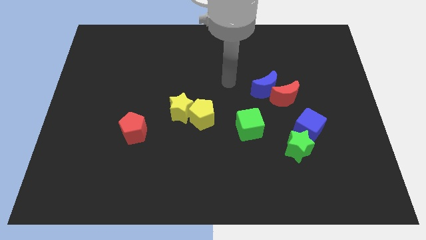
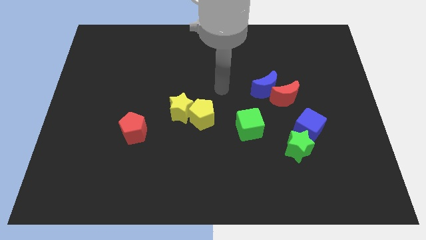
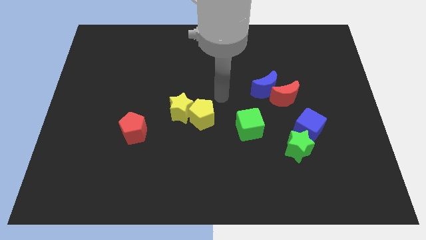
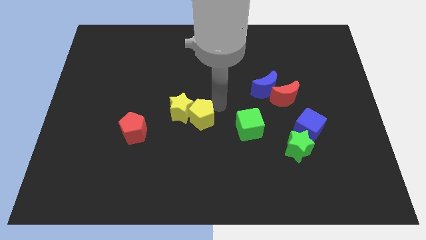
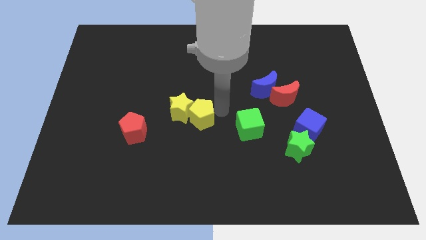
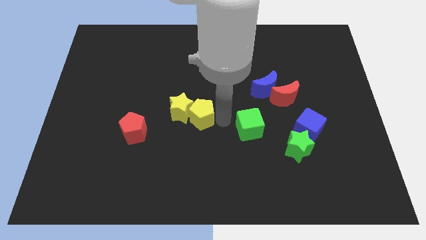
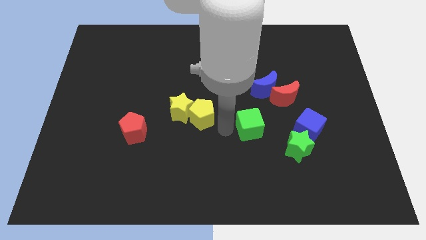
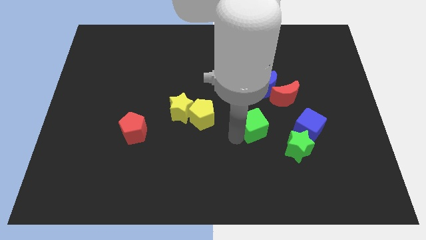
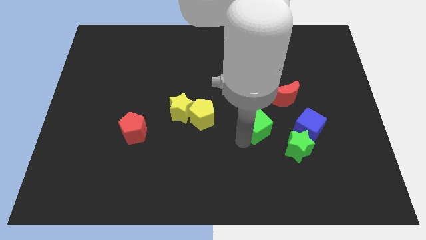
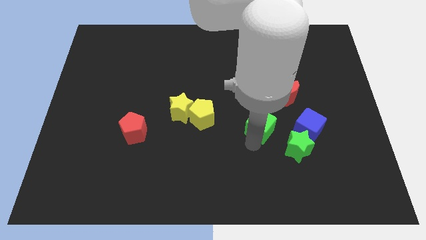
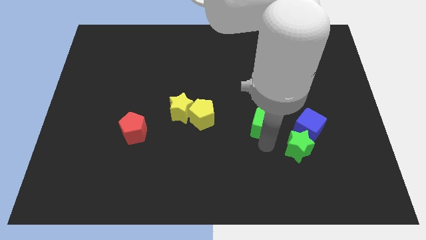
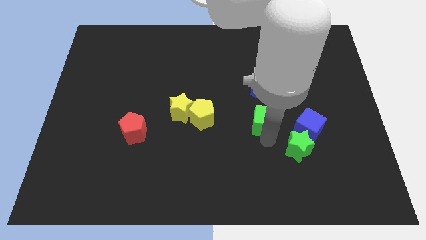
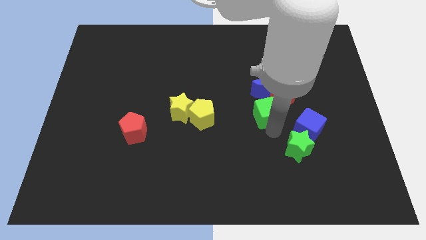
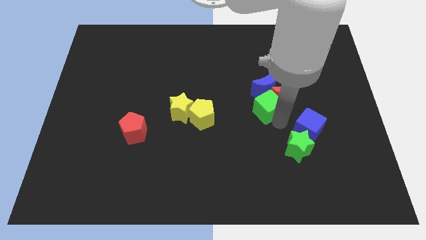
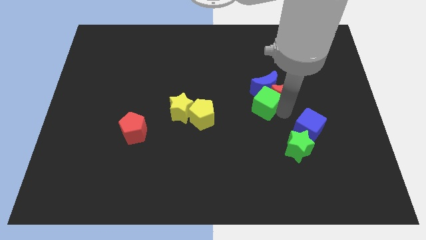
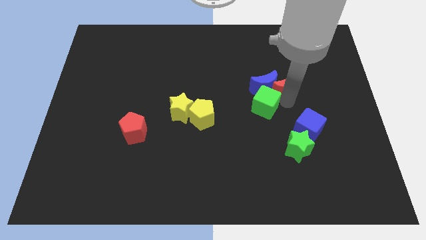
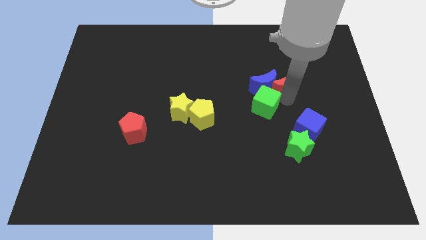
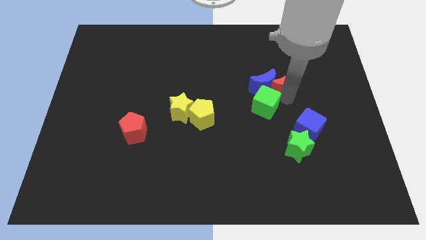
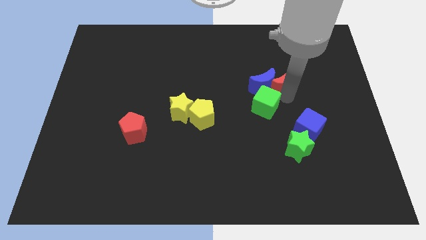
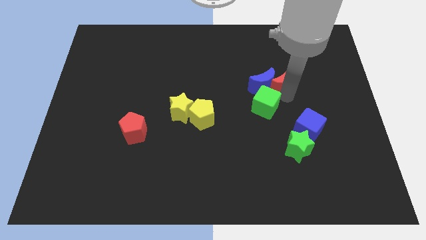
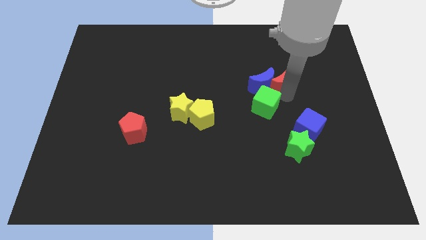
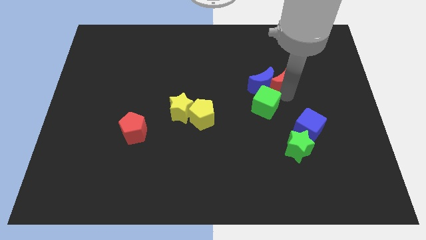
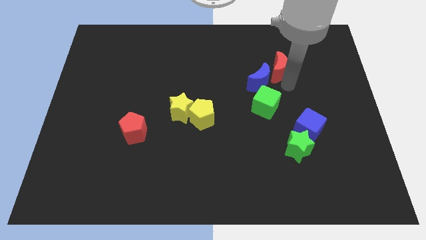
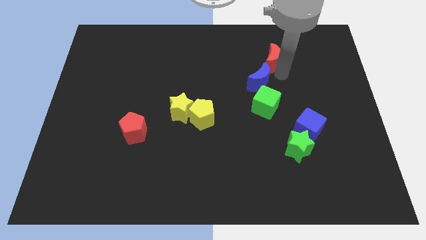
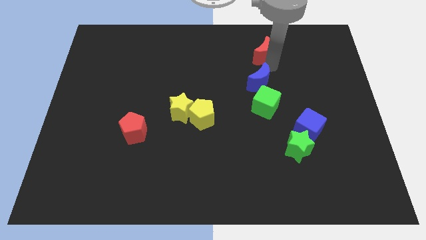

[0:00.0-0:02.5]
separate the blue moon from the red moon

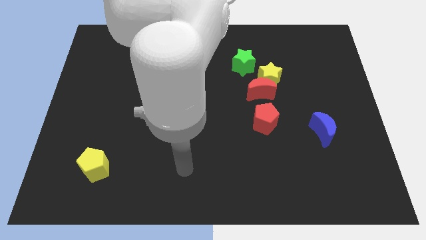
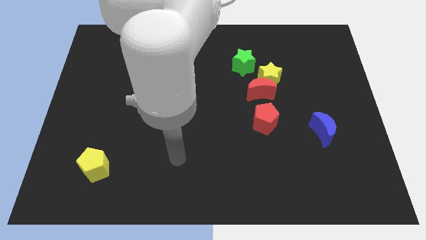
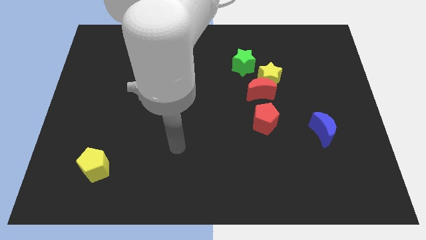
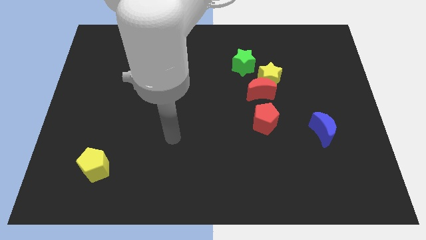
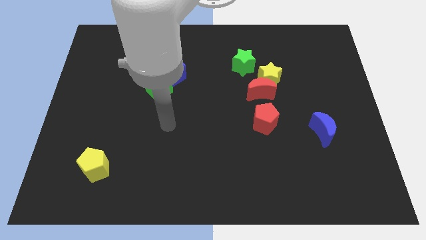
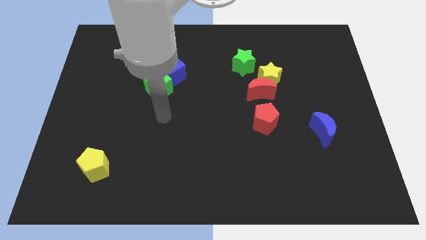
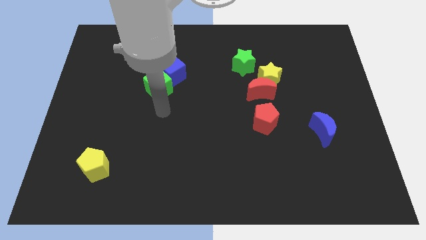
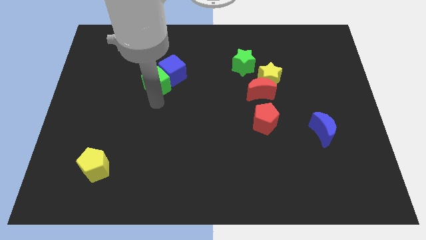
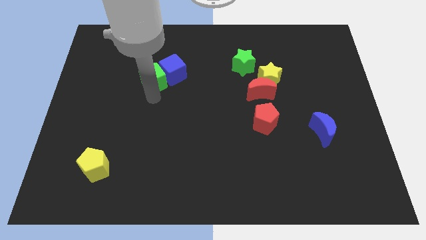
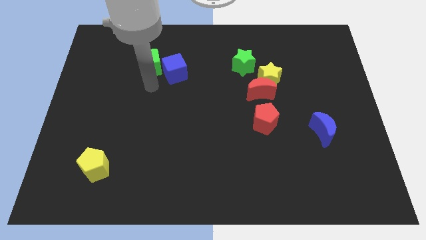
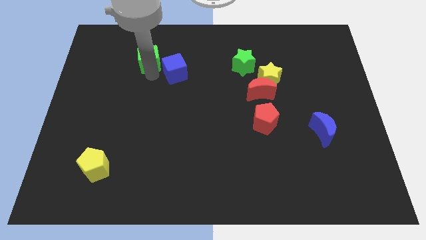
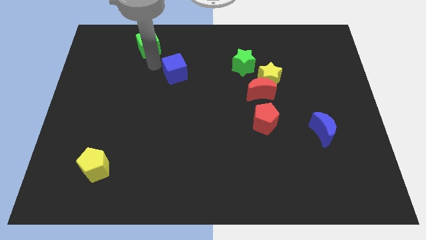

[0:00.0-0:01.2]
pull the blue cube apart from the green cube

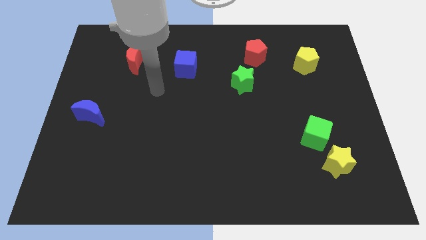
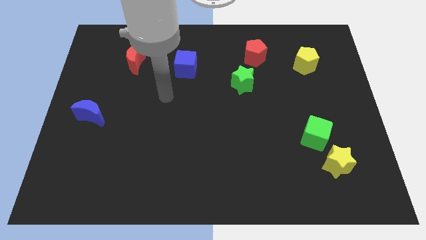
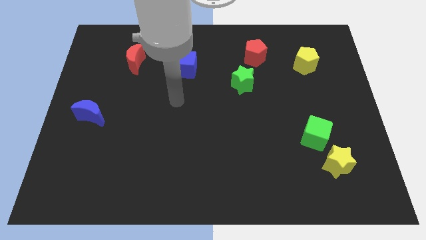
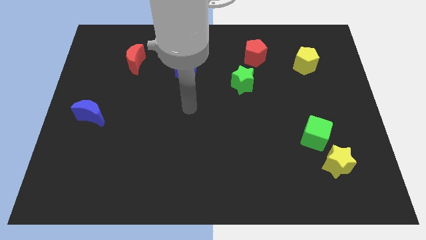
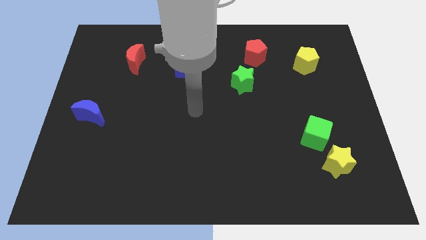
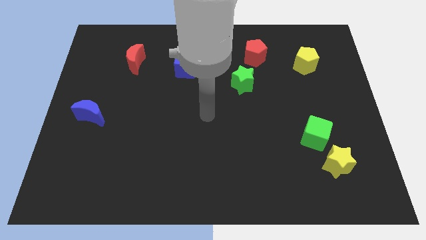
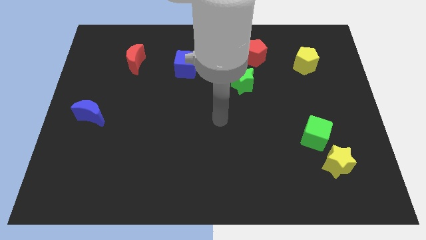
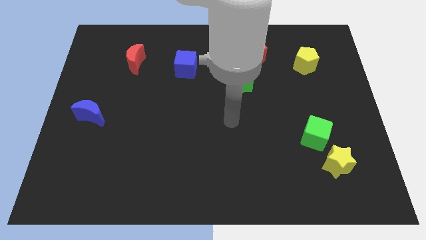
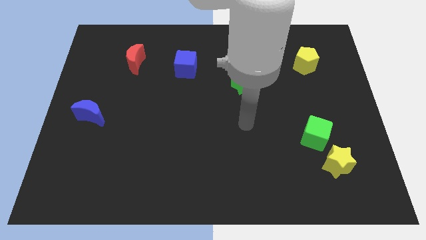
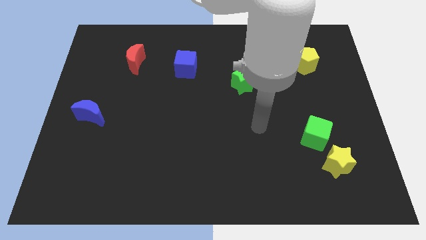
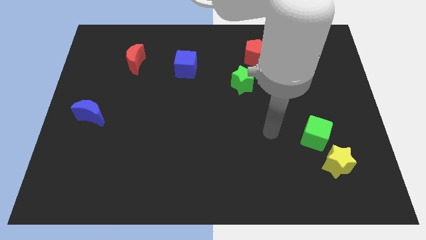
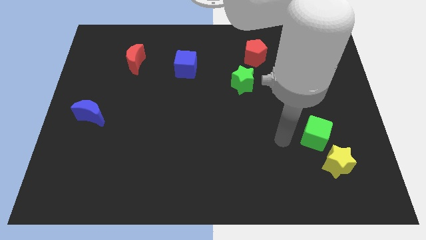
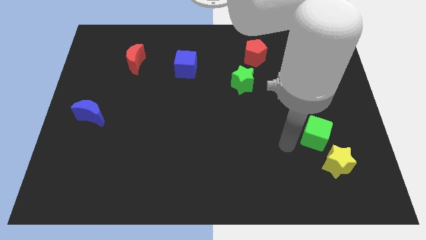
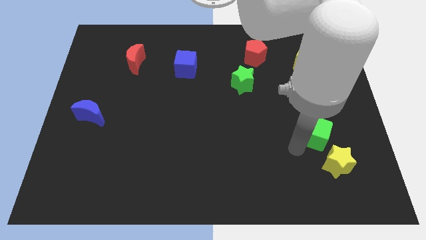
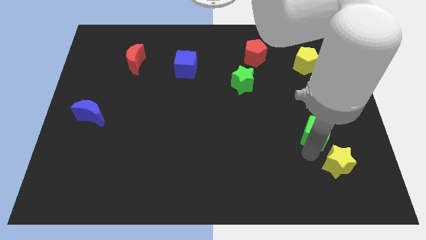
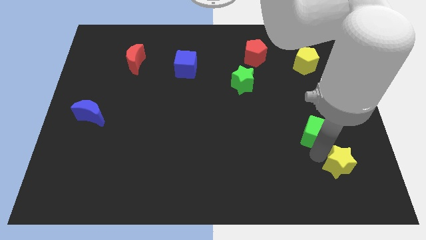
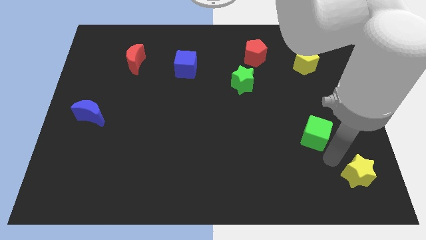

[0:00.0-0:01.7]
pull the green cube apart from the yellow star

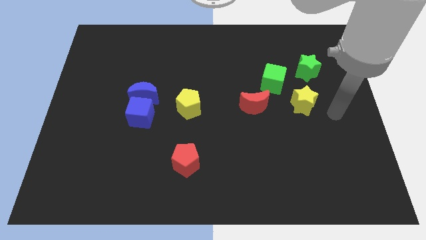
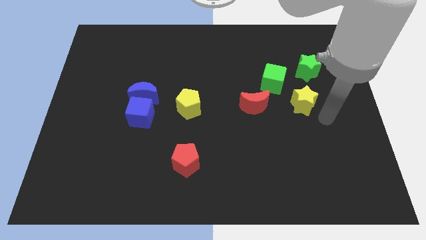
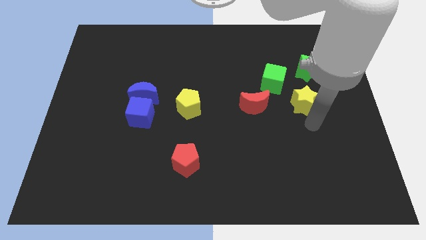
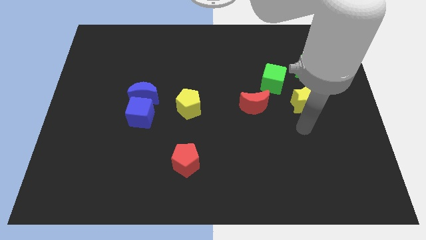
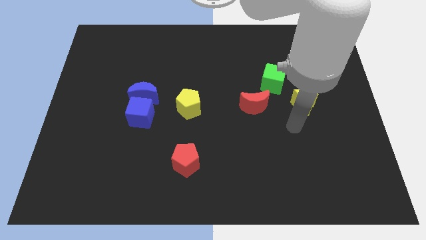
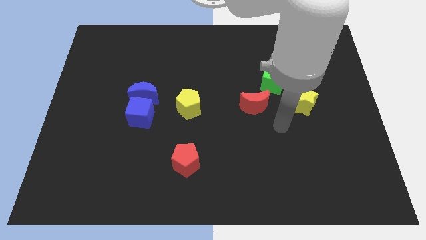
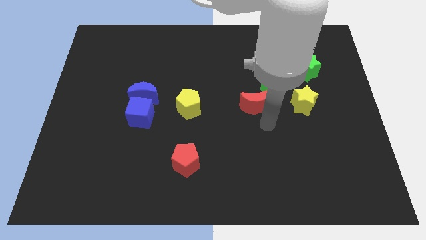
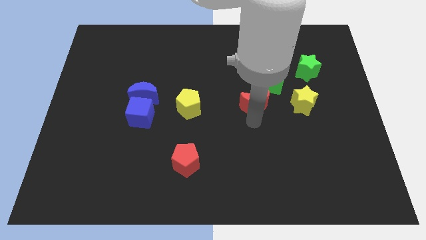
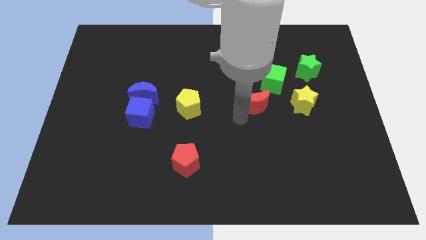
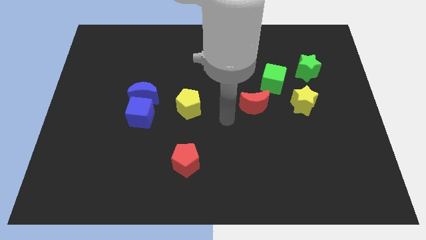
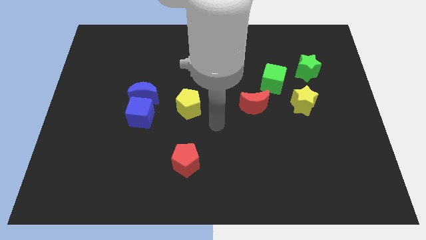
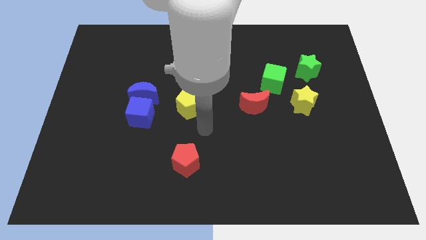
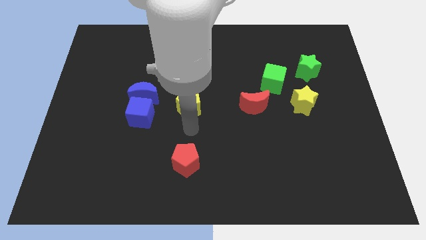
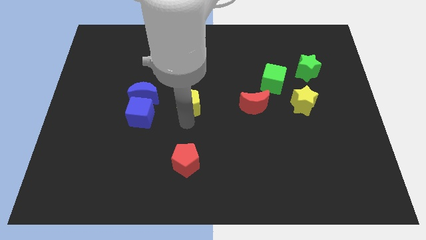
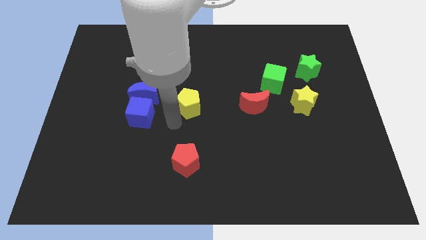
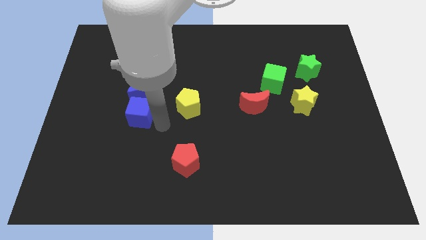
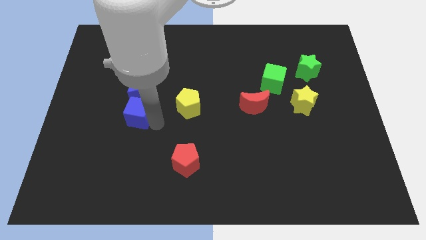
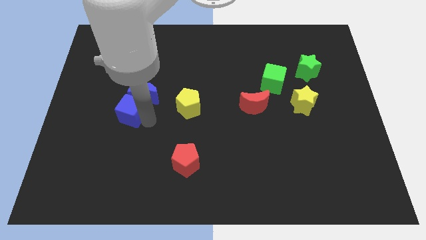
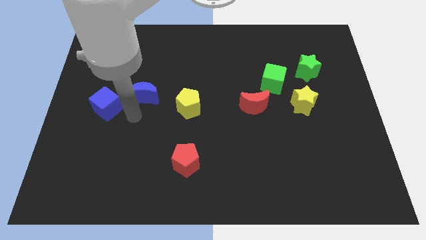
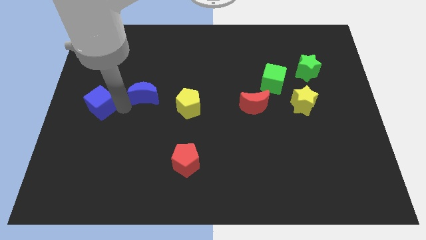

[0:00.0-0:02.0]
move the blue moon away from the blue cube

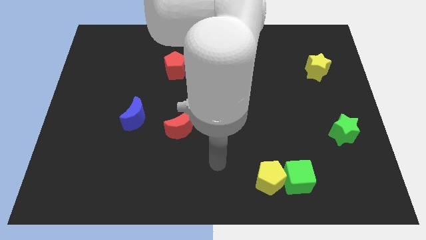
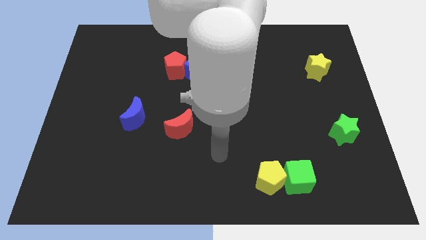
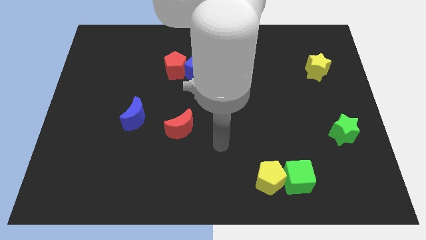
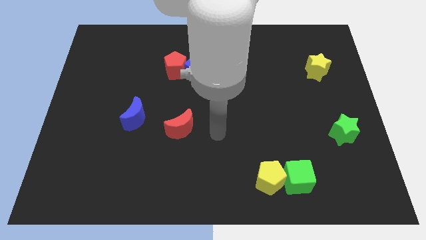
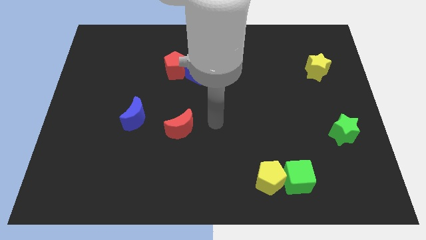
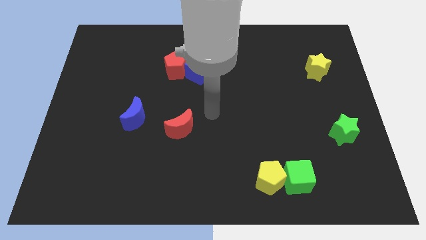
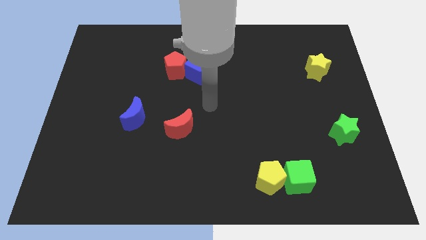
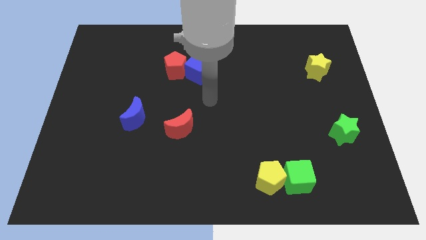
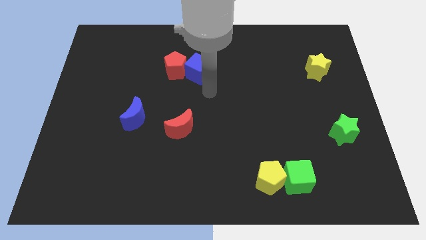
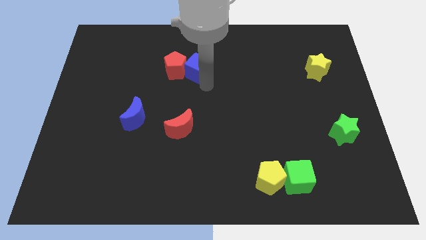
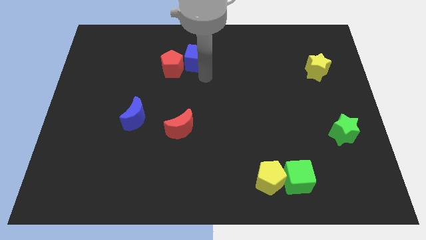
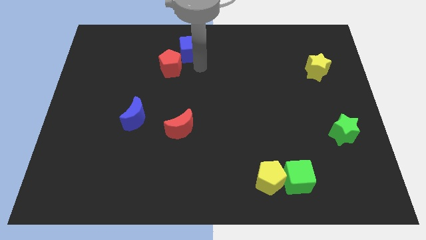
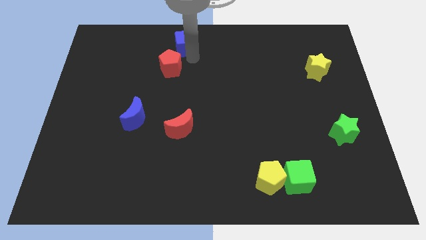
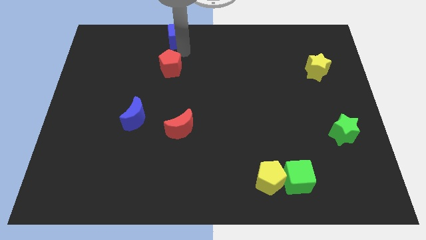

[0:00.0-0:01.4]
separate the red pentagon from the blue cube

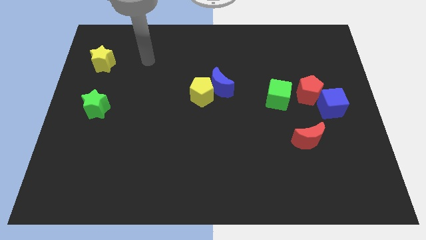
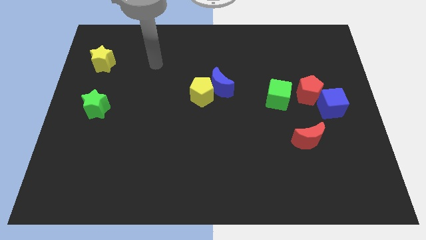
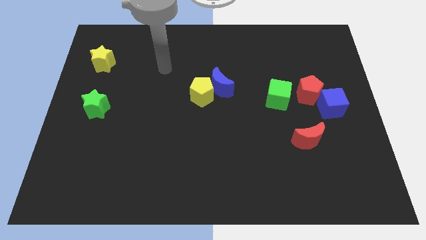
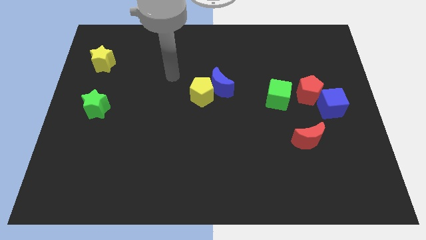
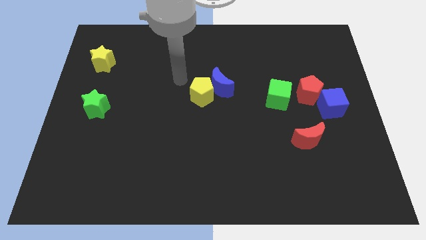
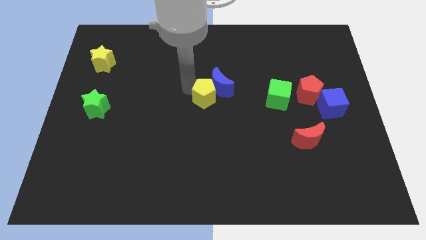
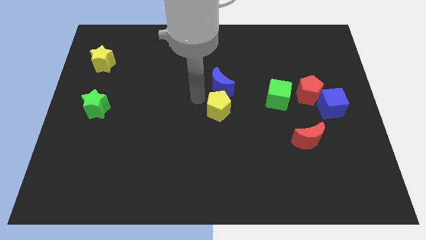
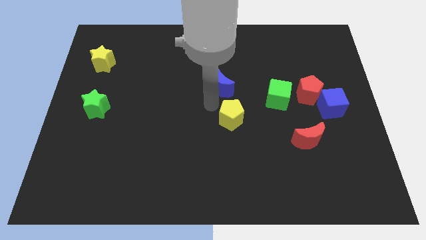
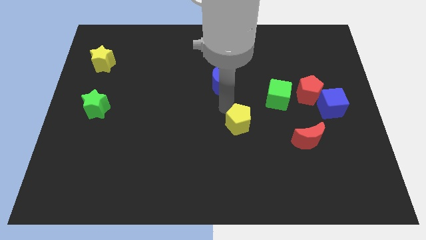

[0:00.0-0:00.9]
move the blue moon away from the yellow pentagon
